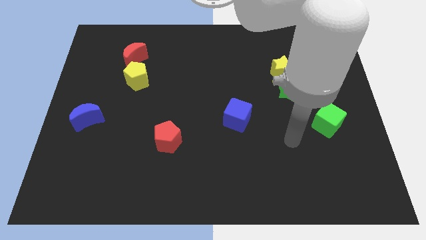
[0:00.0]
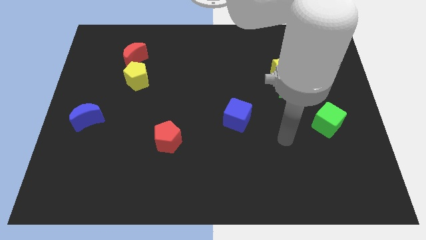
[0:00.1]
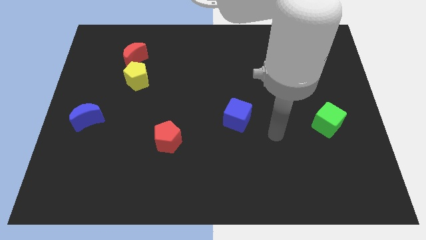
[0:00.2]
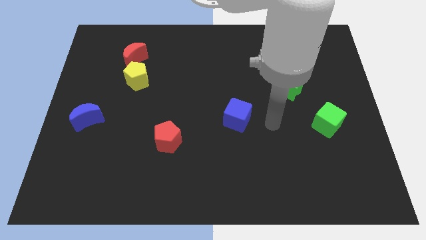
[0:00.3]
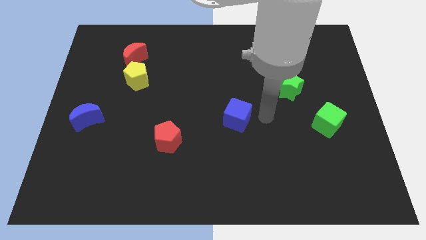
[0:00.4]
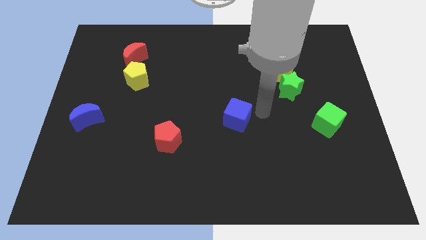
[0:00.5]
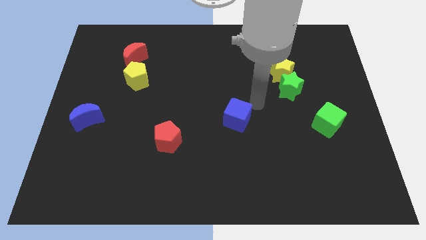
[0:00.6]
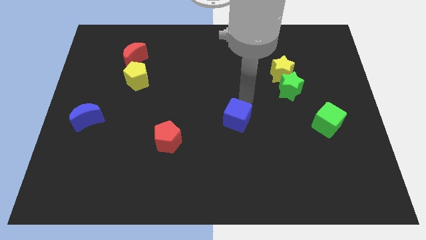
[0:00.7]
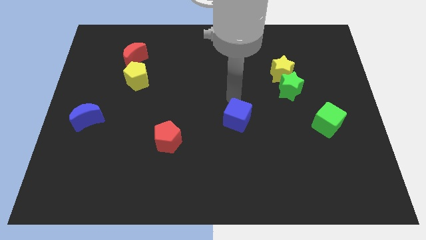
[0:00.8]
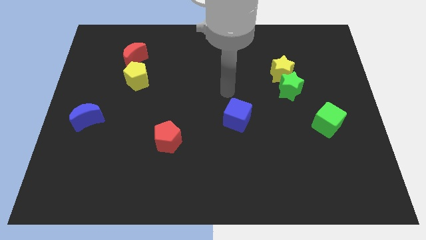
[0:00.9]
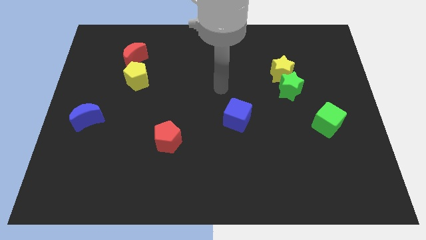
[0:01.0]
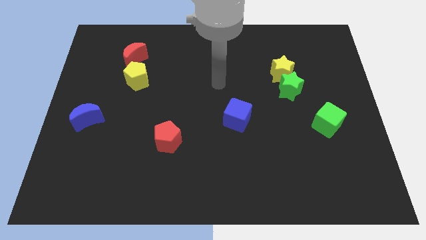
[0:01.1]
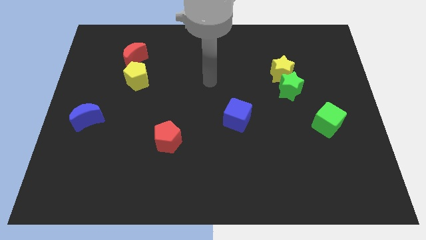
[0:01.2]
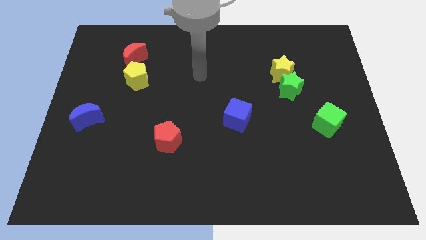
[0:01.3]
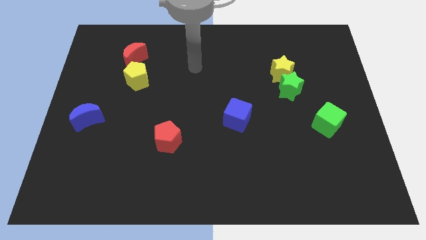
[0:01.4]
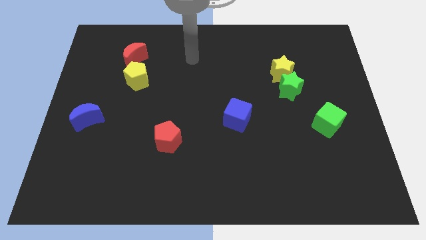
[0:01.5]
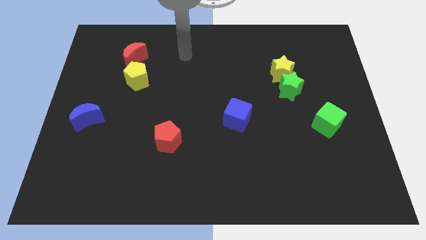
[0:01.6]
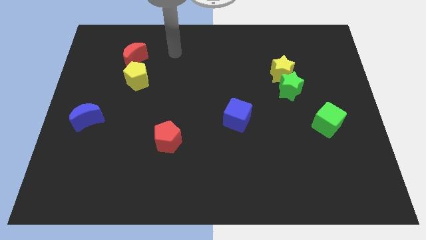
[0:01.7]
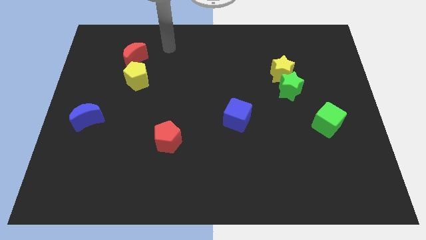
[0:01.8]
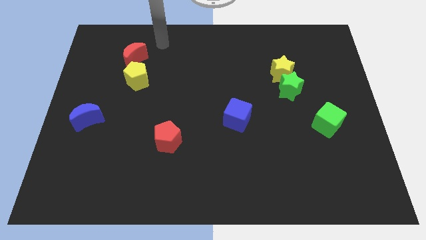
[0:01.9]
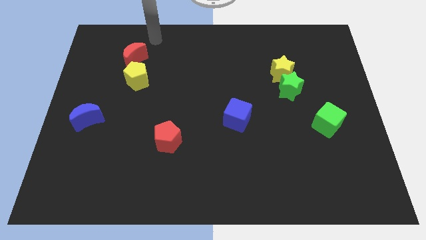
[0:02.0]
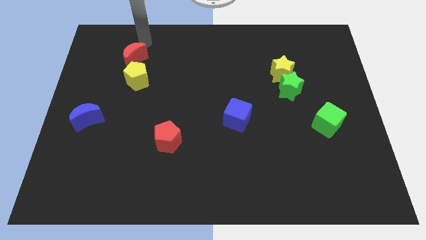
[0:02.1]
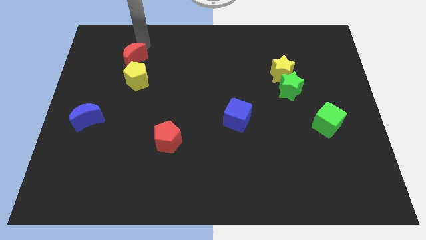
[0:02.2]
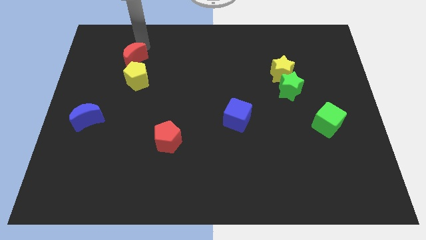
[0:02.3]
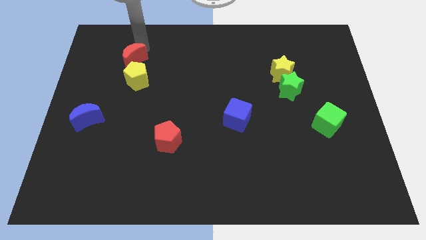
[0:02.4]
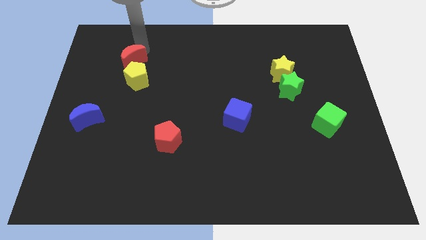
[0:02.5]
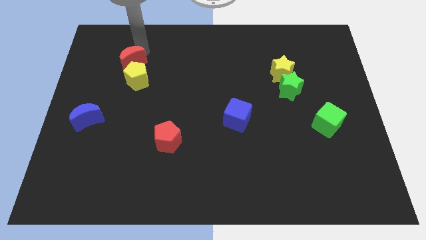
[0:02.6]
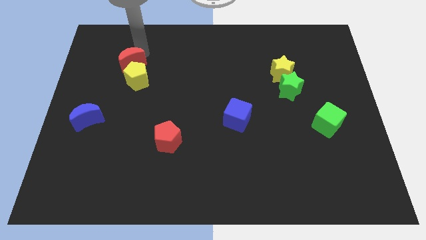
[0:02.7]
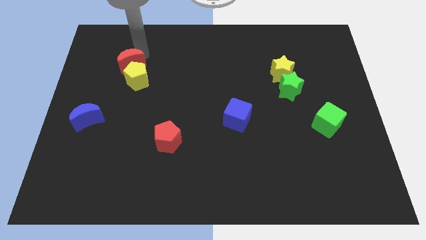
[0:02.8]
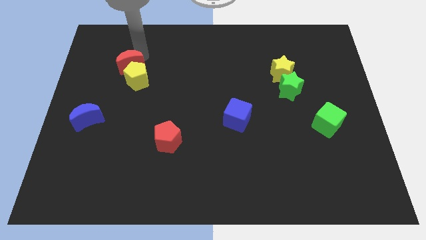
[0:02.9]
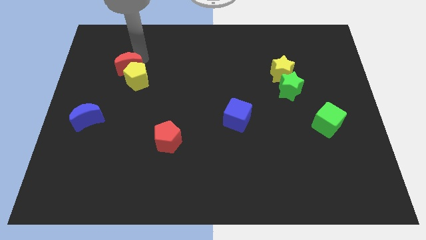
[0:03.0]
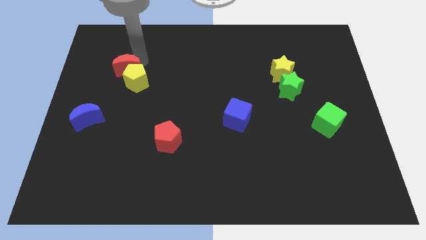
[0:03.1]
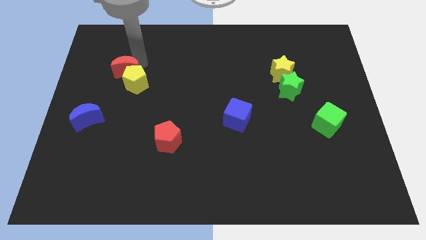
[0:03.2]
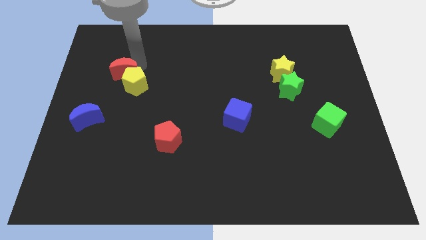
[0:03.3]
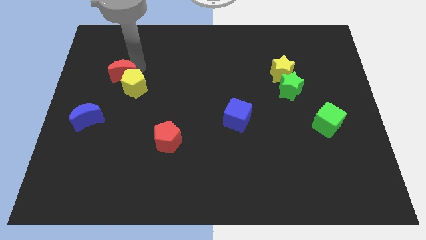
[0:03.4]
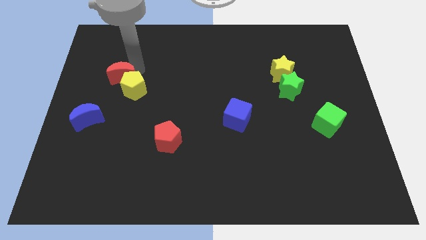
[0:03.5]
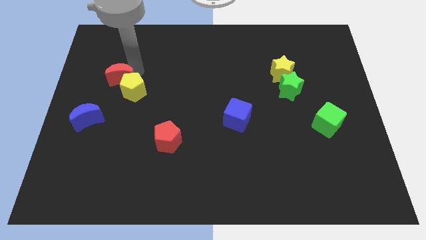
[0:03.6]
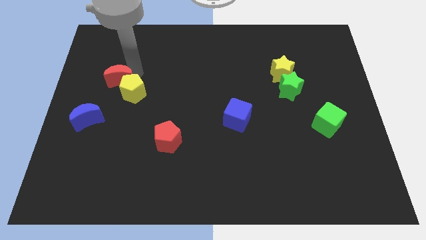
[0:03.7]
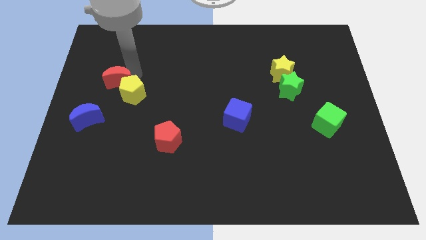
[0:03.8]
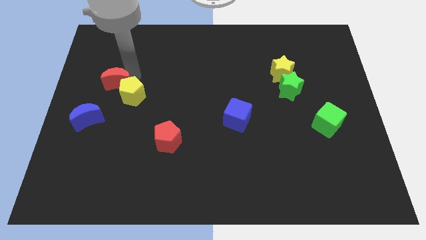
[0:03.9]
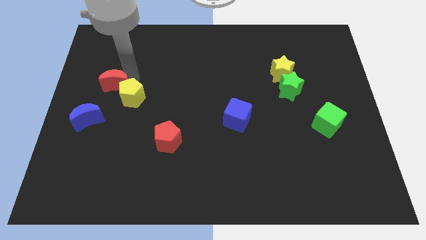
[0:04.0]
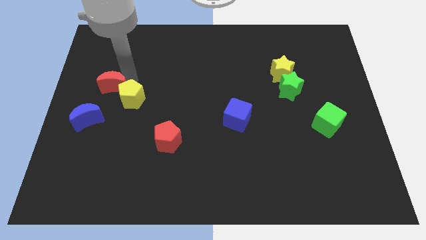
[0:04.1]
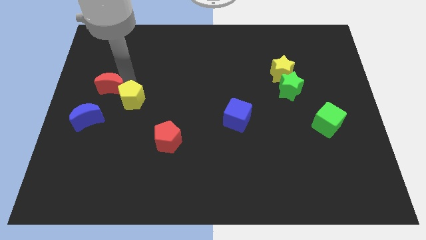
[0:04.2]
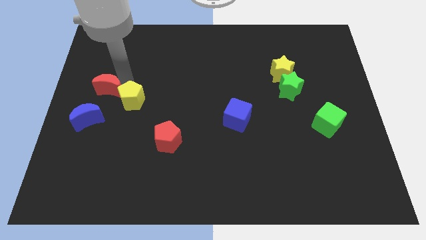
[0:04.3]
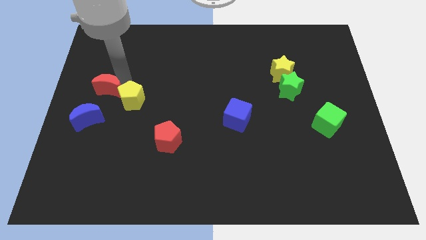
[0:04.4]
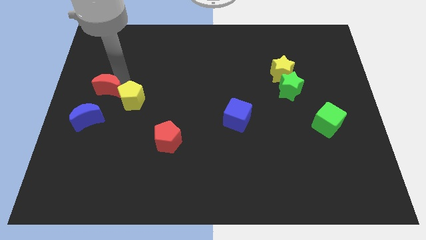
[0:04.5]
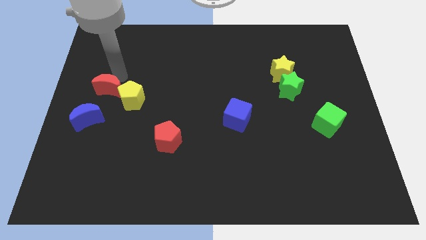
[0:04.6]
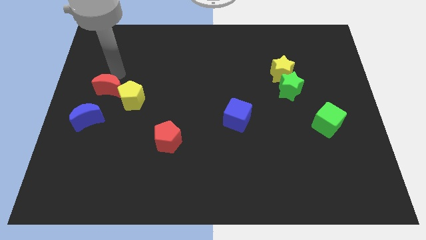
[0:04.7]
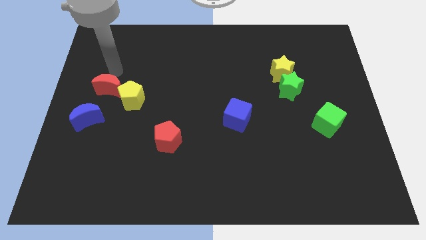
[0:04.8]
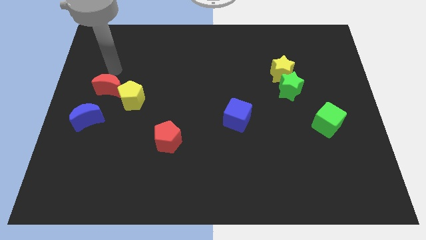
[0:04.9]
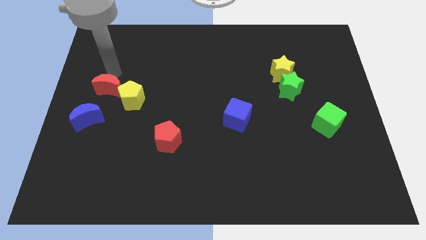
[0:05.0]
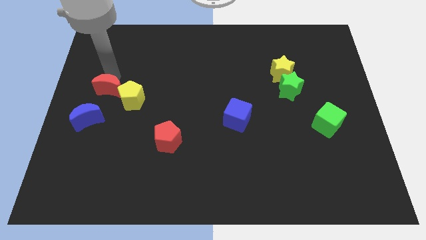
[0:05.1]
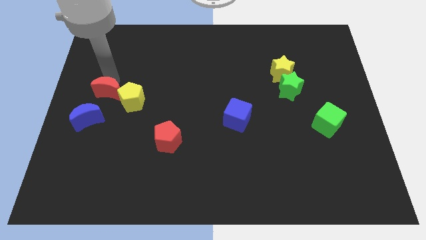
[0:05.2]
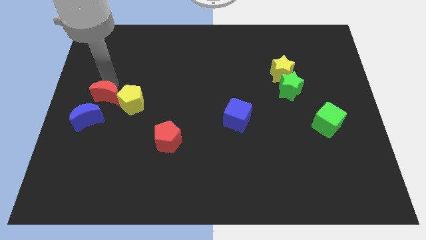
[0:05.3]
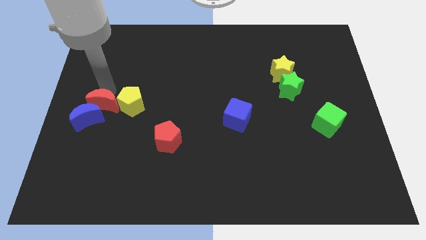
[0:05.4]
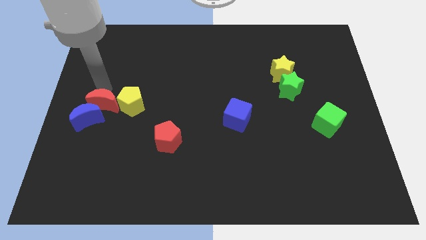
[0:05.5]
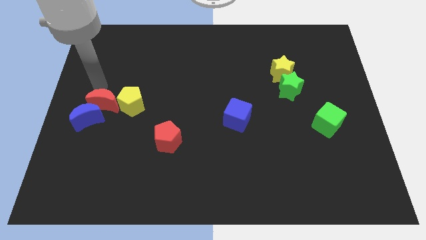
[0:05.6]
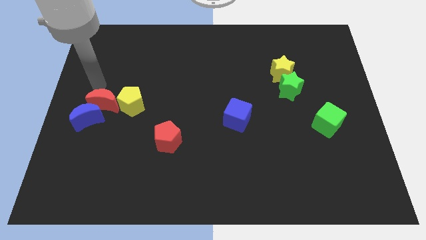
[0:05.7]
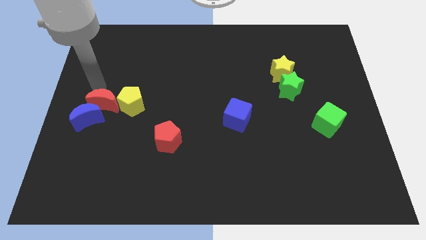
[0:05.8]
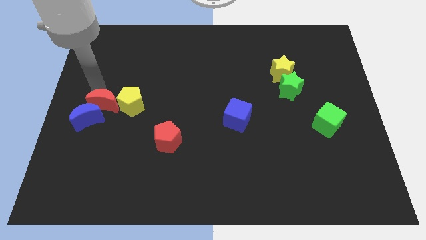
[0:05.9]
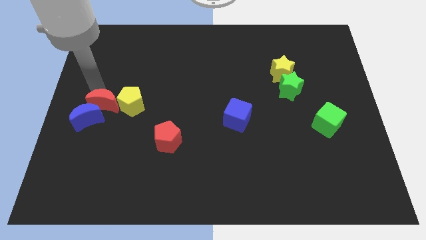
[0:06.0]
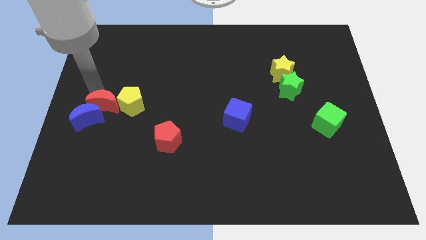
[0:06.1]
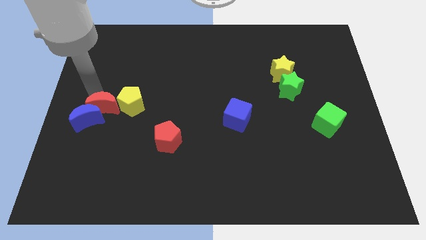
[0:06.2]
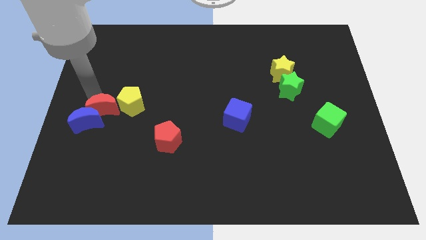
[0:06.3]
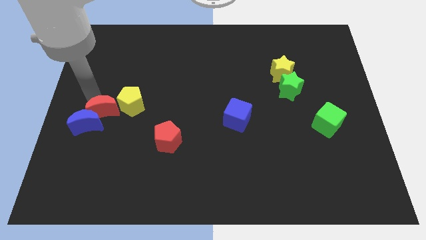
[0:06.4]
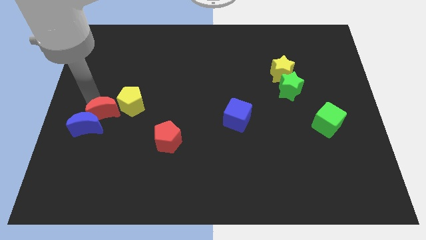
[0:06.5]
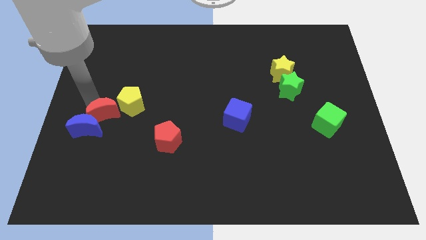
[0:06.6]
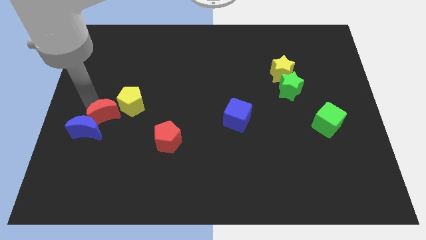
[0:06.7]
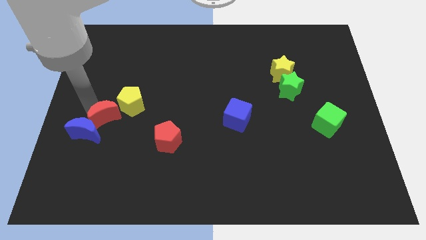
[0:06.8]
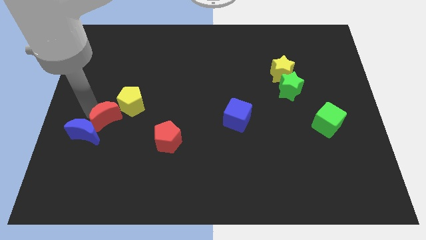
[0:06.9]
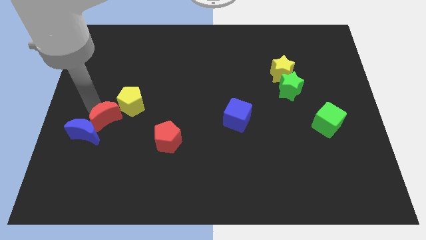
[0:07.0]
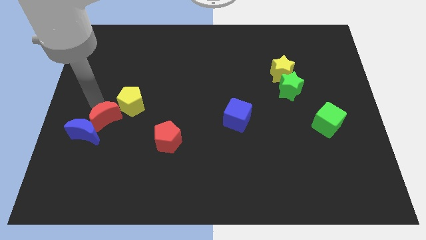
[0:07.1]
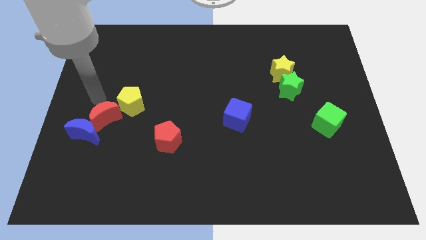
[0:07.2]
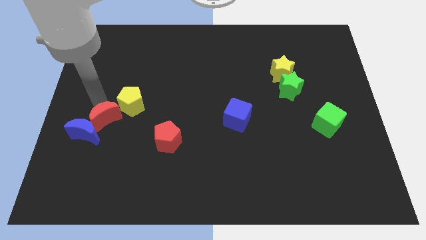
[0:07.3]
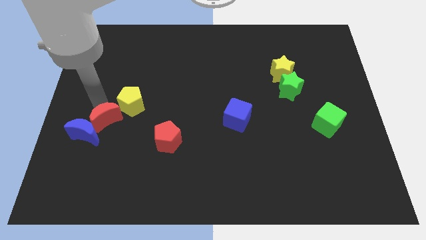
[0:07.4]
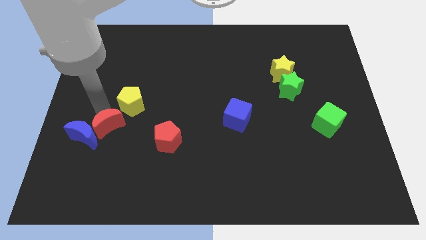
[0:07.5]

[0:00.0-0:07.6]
slide the red moon down
